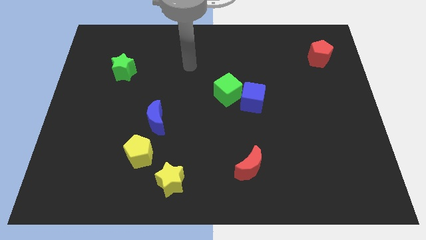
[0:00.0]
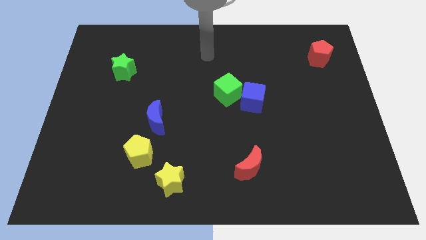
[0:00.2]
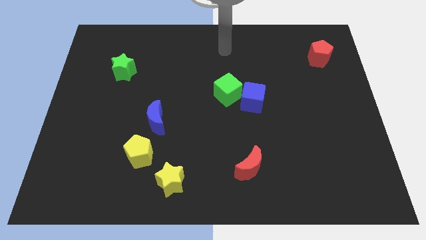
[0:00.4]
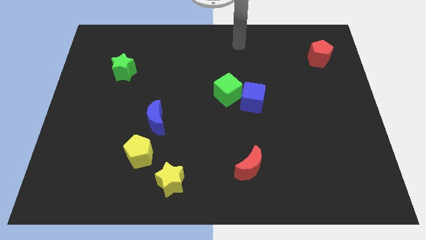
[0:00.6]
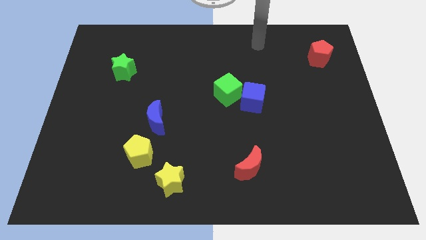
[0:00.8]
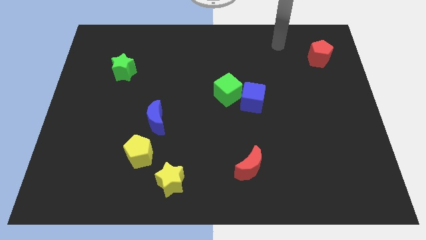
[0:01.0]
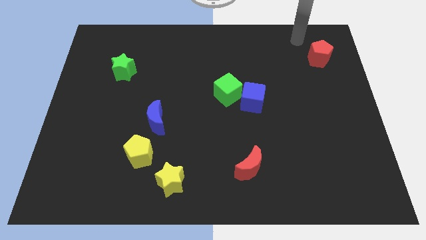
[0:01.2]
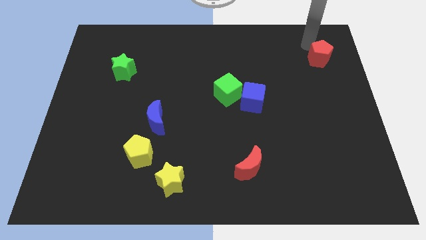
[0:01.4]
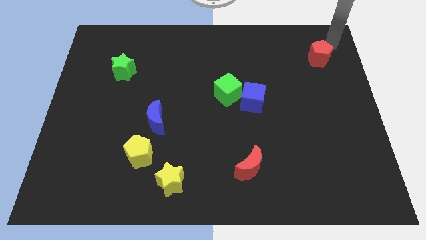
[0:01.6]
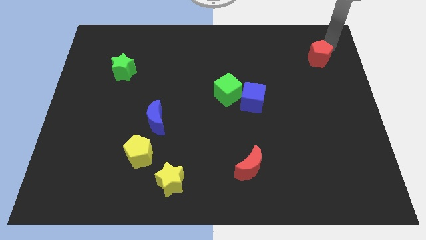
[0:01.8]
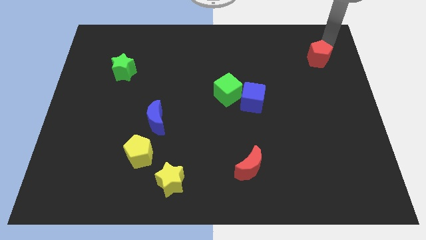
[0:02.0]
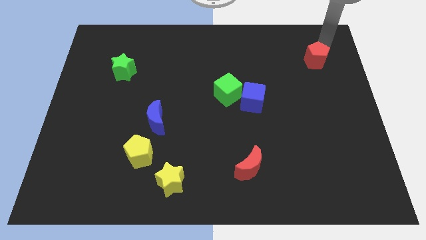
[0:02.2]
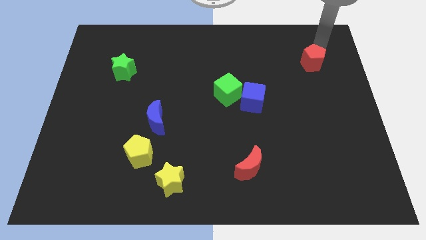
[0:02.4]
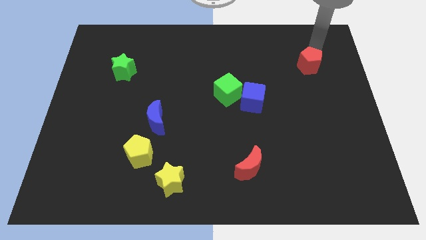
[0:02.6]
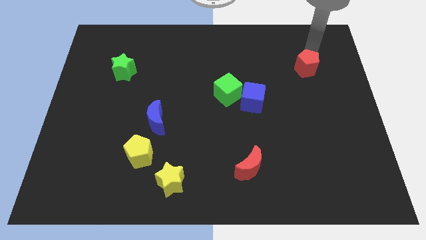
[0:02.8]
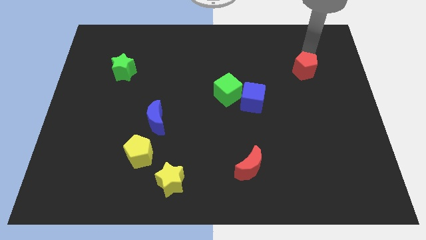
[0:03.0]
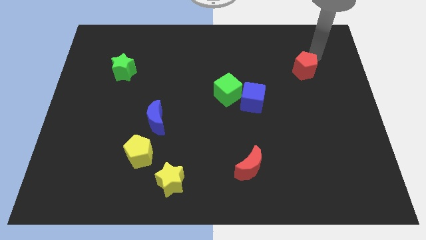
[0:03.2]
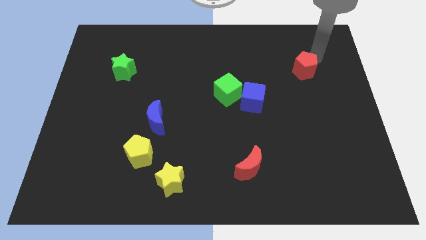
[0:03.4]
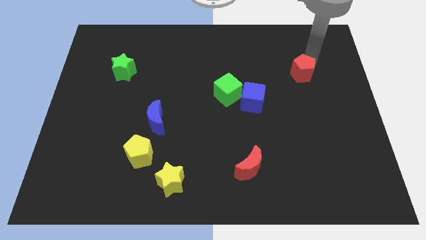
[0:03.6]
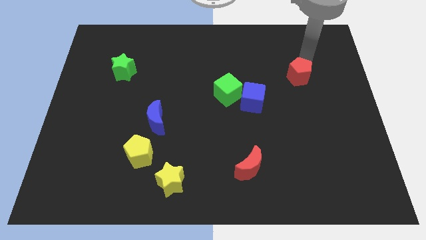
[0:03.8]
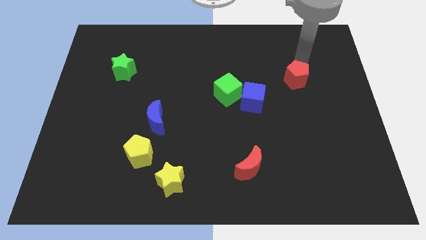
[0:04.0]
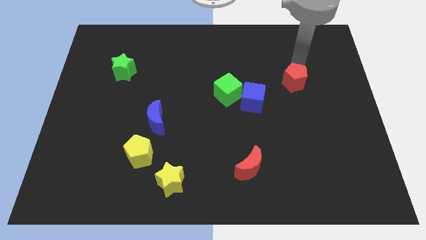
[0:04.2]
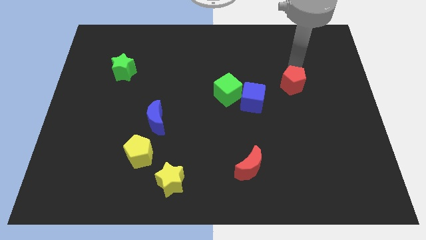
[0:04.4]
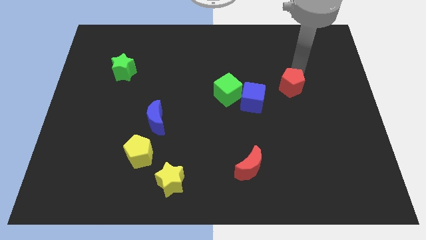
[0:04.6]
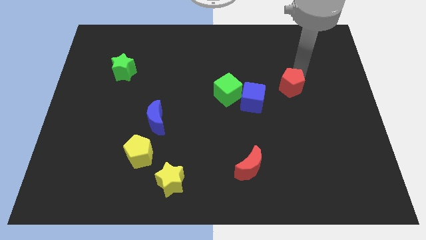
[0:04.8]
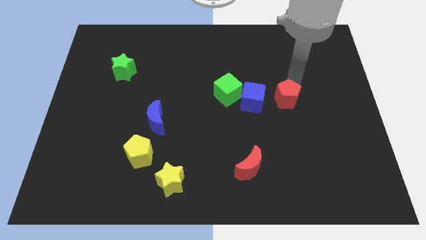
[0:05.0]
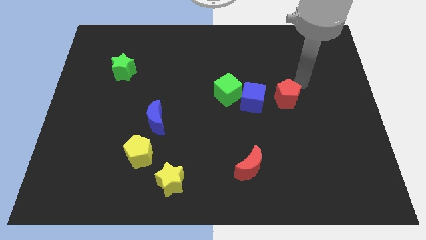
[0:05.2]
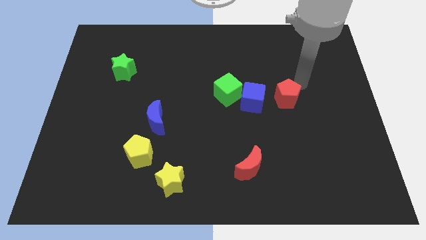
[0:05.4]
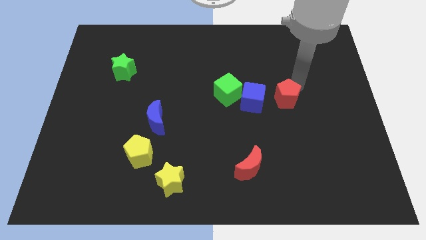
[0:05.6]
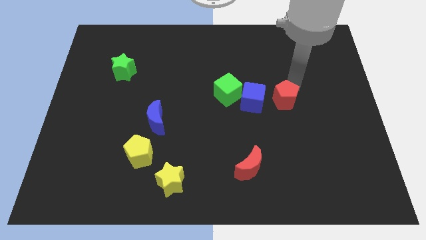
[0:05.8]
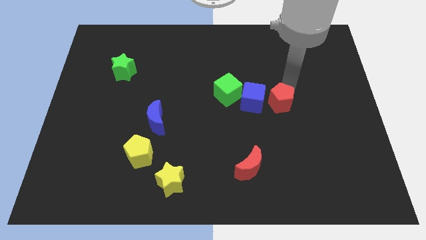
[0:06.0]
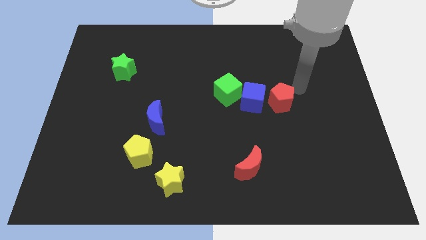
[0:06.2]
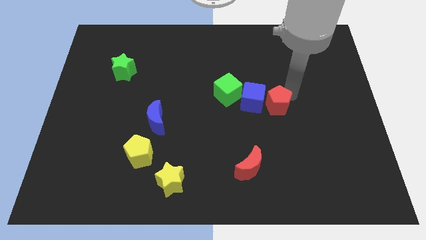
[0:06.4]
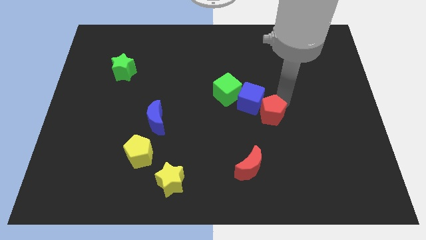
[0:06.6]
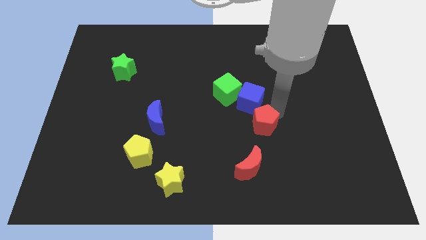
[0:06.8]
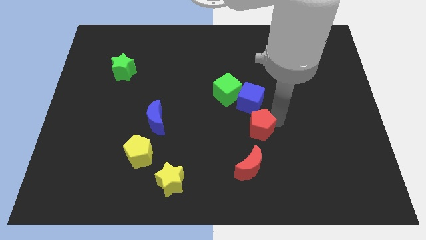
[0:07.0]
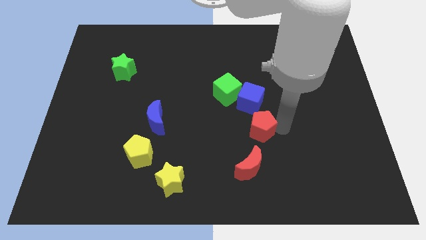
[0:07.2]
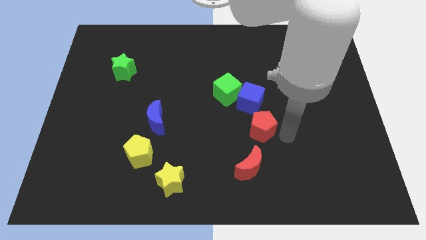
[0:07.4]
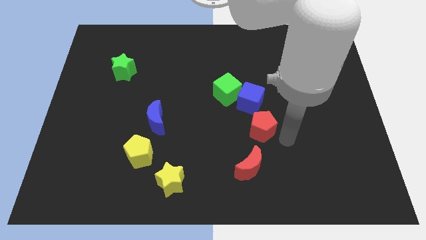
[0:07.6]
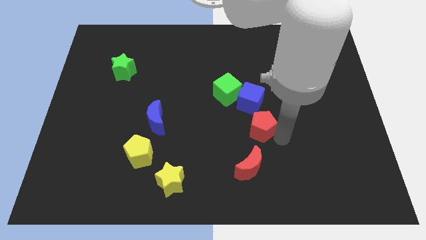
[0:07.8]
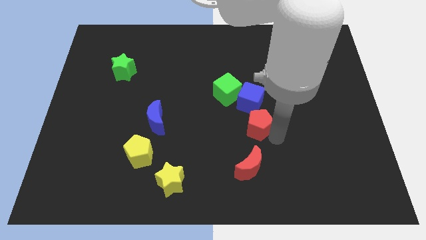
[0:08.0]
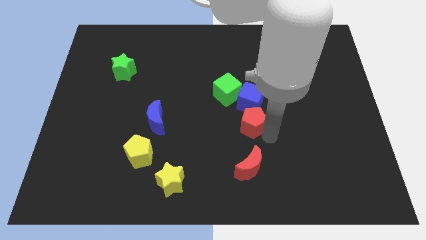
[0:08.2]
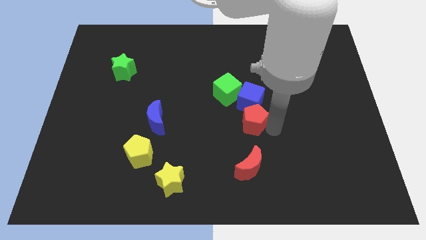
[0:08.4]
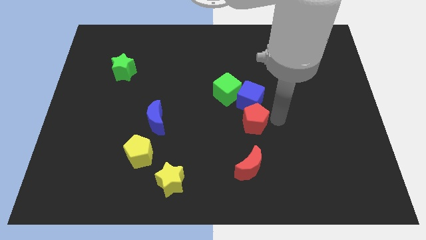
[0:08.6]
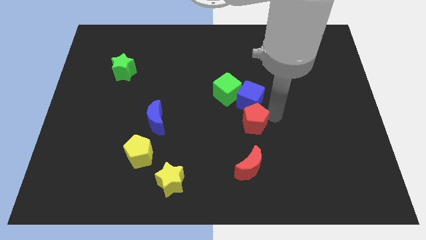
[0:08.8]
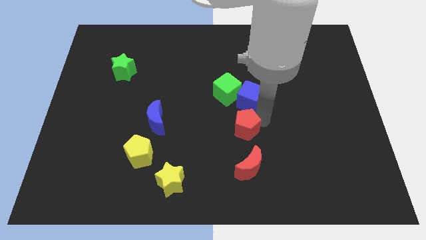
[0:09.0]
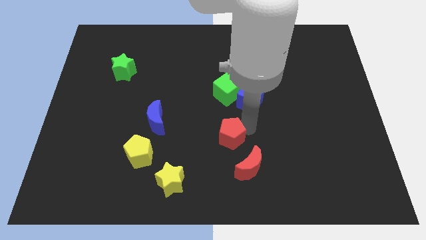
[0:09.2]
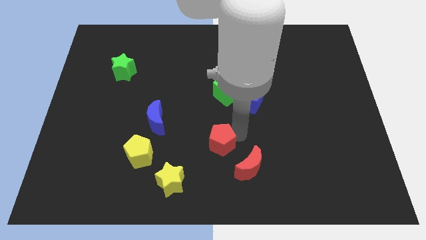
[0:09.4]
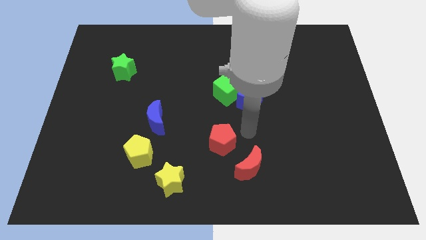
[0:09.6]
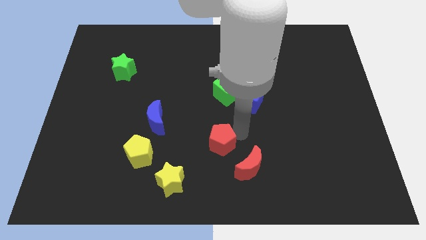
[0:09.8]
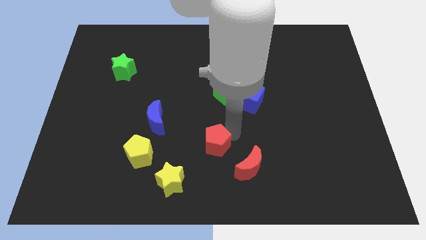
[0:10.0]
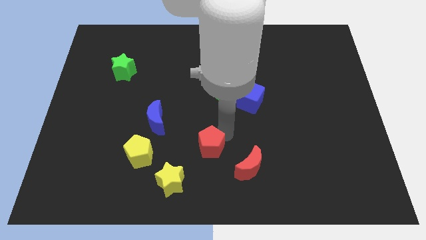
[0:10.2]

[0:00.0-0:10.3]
move the red pentagon right of the yellow pentagon
